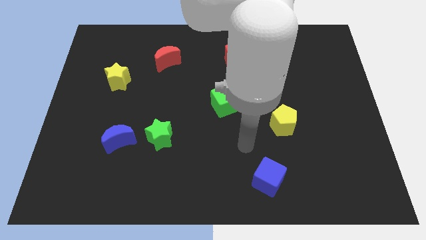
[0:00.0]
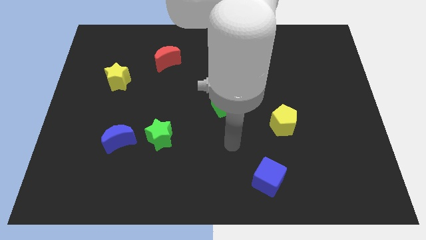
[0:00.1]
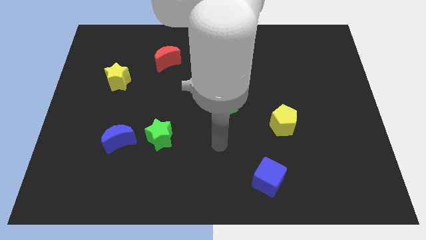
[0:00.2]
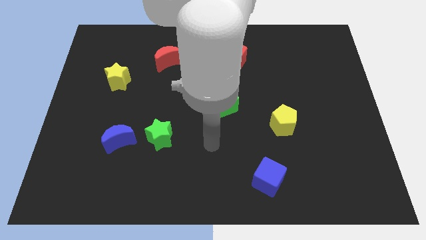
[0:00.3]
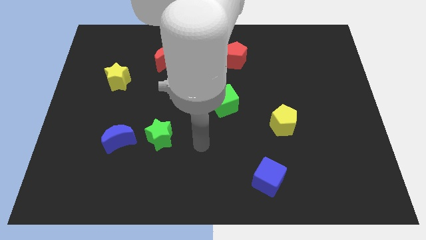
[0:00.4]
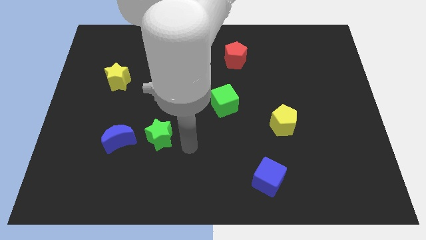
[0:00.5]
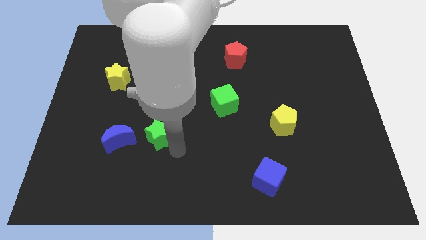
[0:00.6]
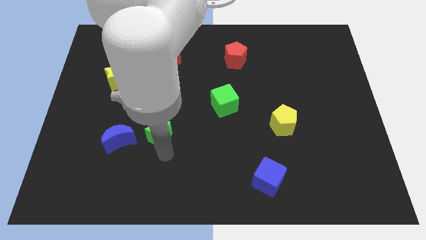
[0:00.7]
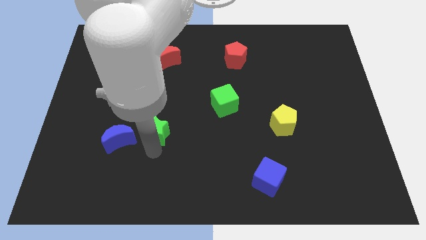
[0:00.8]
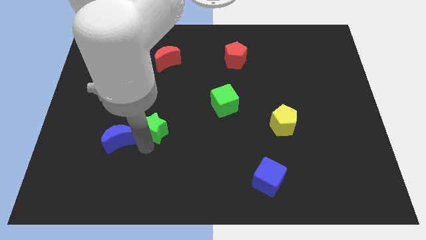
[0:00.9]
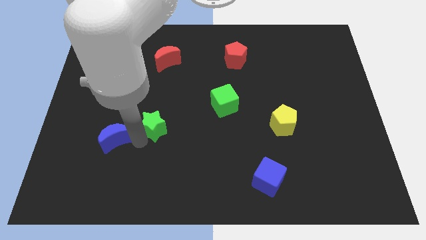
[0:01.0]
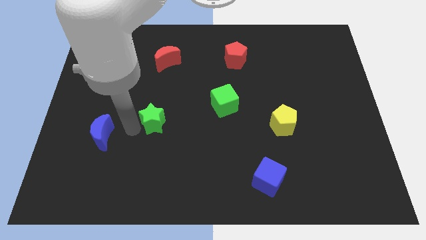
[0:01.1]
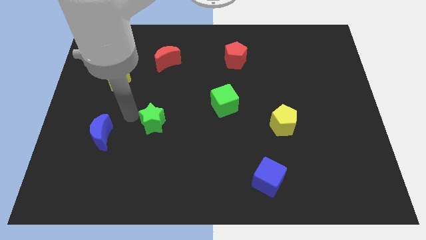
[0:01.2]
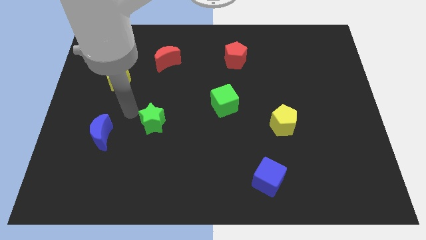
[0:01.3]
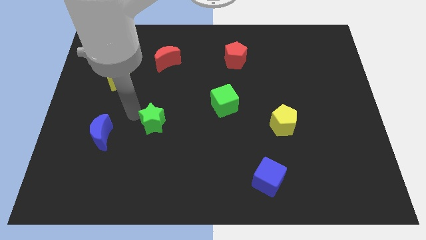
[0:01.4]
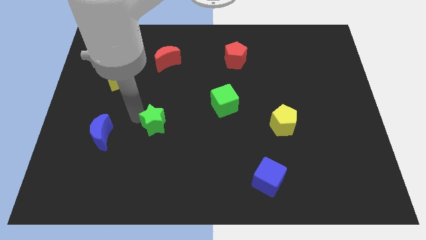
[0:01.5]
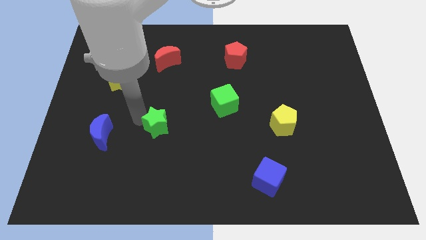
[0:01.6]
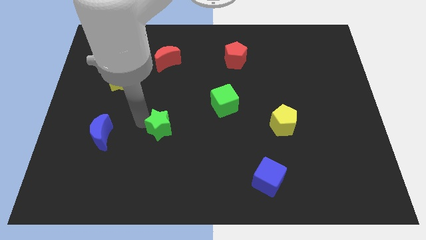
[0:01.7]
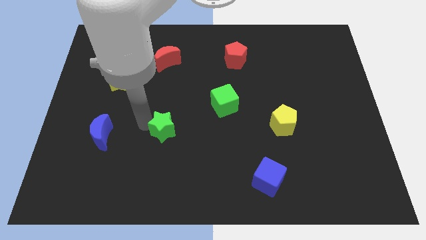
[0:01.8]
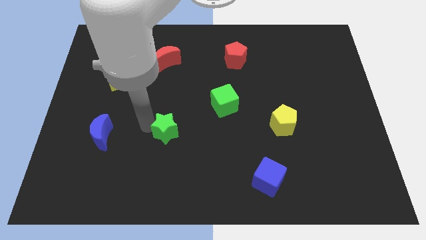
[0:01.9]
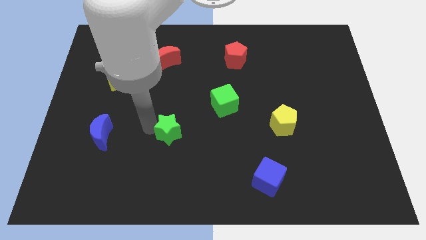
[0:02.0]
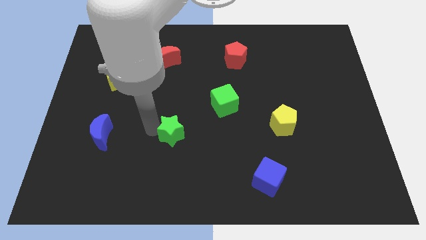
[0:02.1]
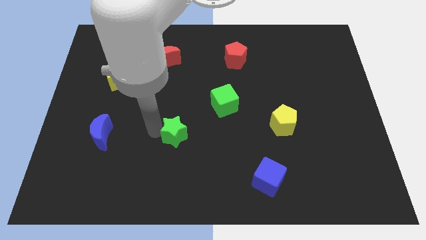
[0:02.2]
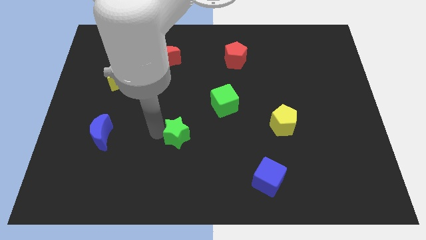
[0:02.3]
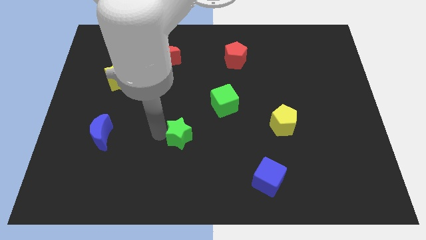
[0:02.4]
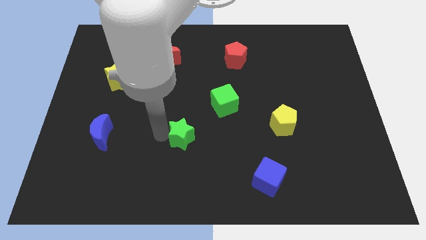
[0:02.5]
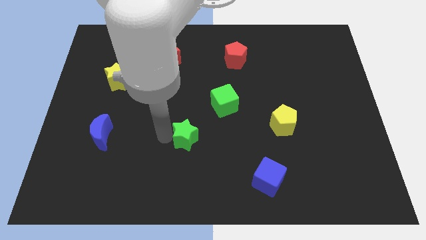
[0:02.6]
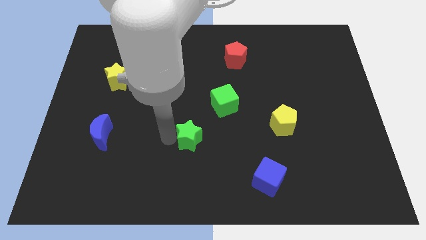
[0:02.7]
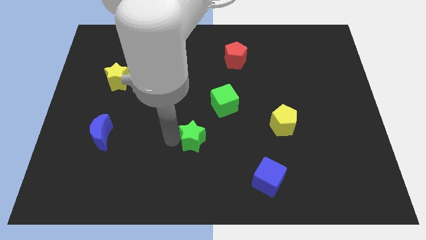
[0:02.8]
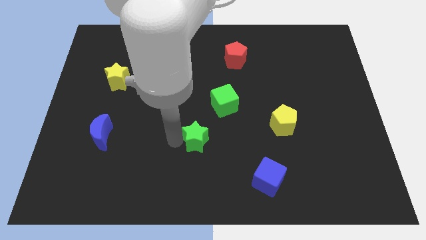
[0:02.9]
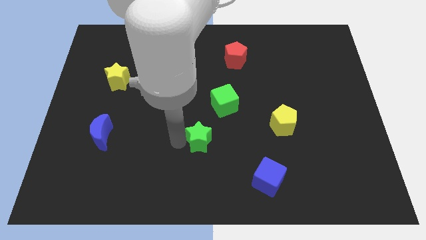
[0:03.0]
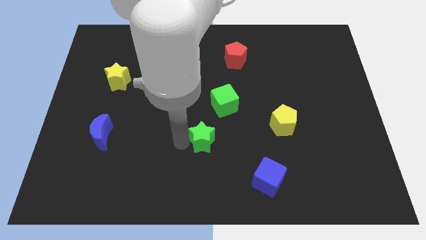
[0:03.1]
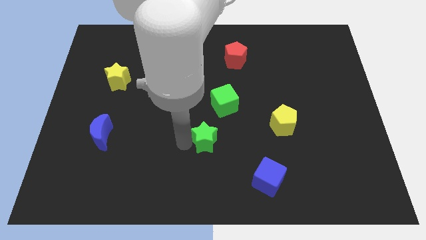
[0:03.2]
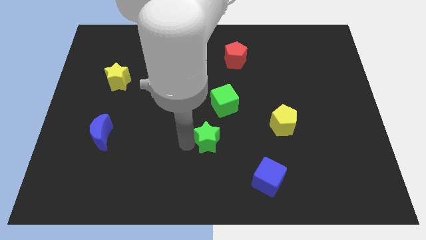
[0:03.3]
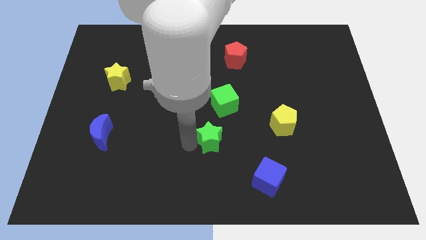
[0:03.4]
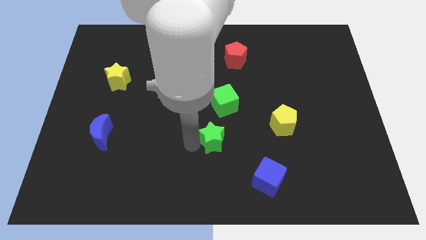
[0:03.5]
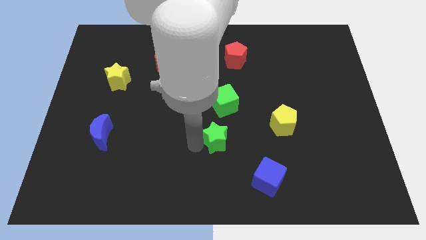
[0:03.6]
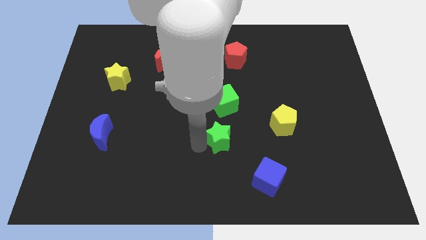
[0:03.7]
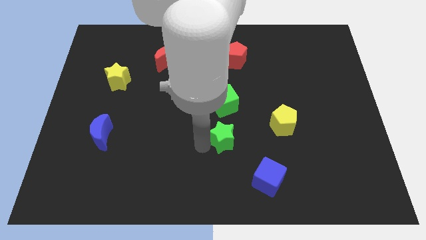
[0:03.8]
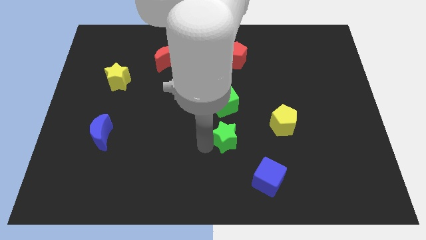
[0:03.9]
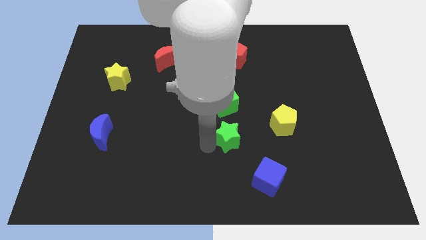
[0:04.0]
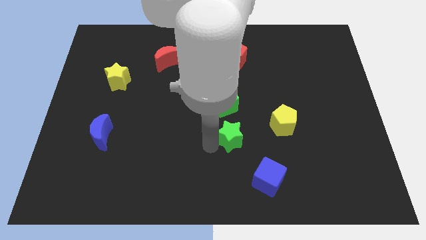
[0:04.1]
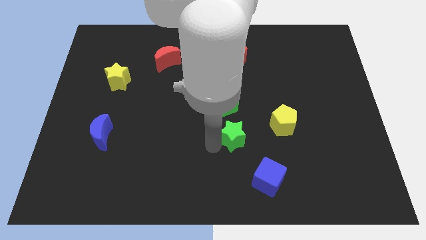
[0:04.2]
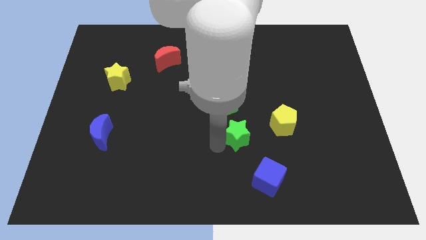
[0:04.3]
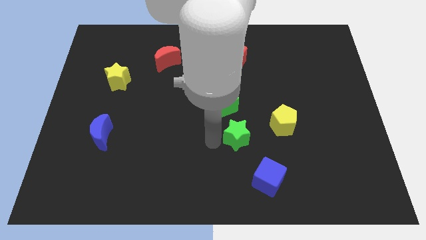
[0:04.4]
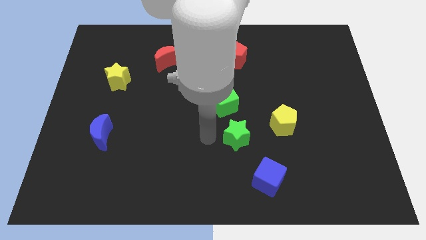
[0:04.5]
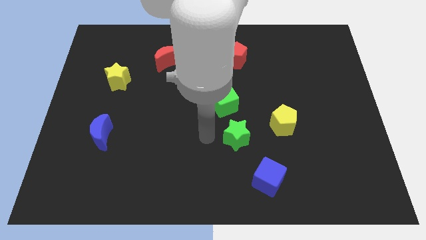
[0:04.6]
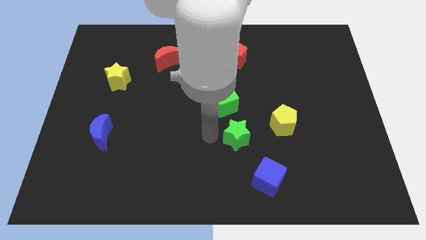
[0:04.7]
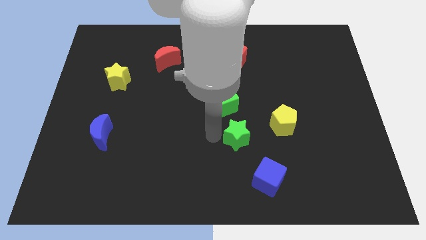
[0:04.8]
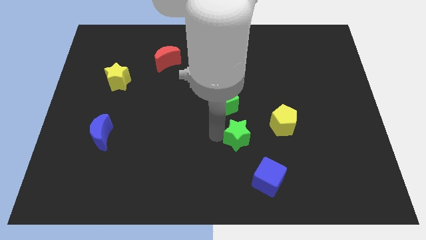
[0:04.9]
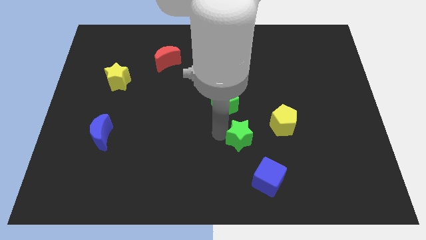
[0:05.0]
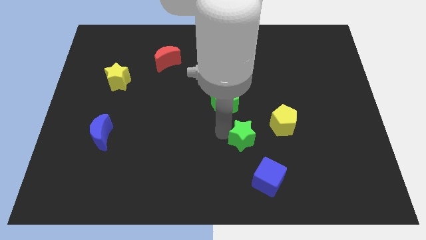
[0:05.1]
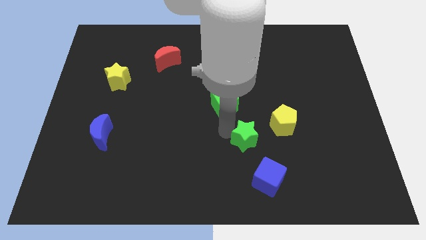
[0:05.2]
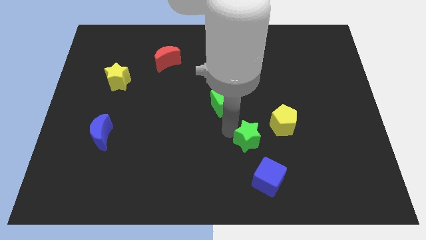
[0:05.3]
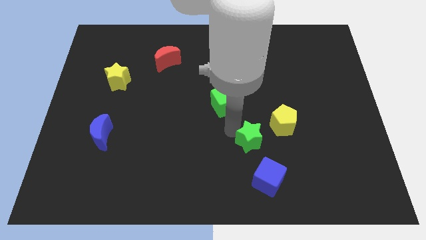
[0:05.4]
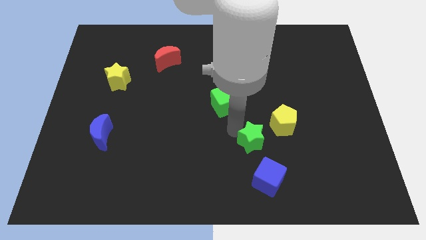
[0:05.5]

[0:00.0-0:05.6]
slide the green star to the right

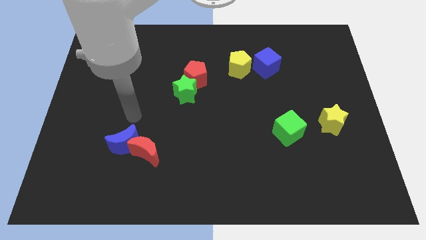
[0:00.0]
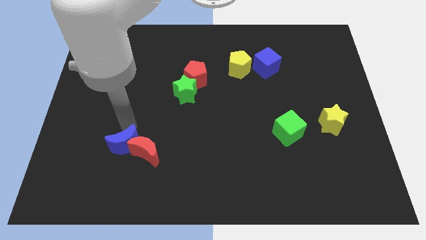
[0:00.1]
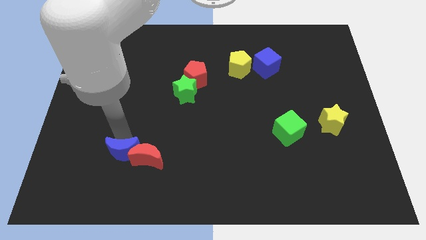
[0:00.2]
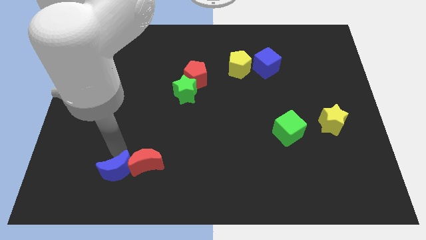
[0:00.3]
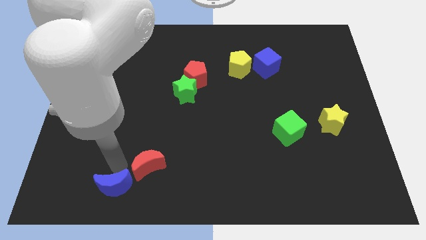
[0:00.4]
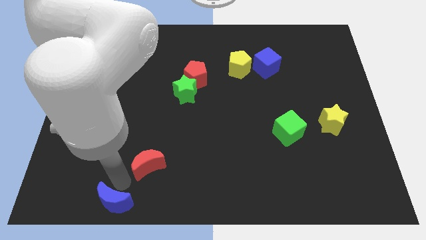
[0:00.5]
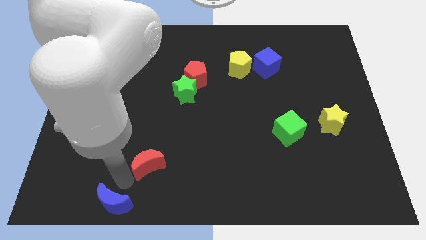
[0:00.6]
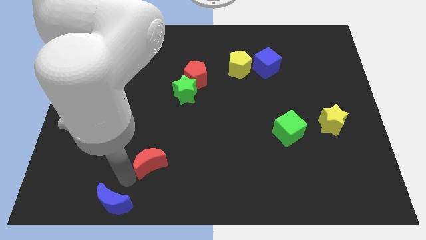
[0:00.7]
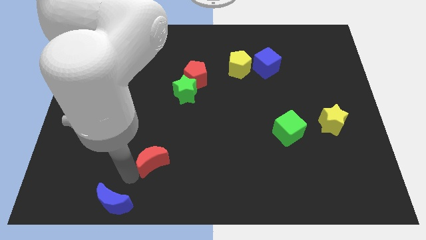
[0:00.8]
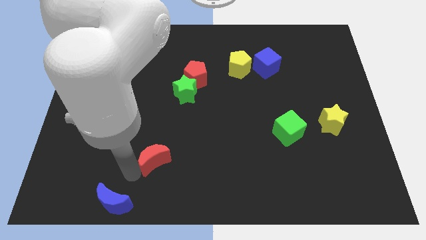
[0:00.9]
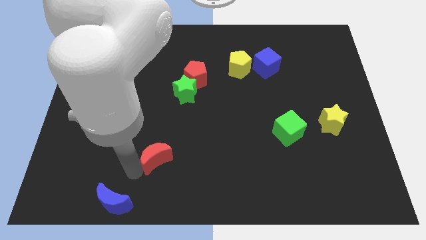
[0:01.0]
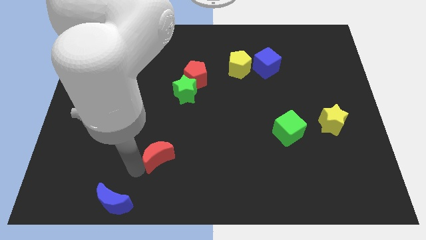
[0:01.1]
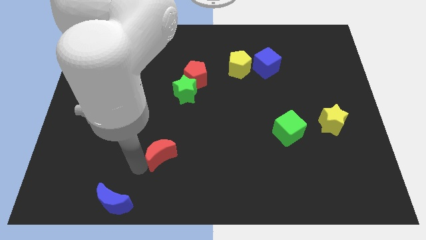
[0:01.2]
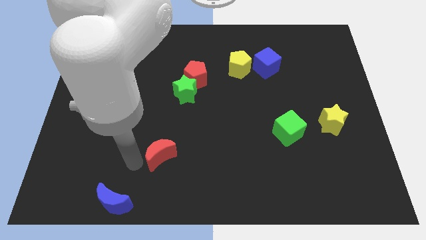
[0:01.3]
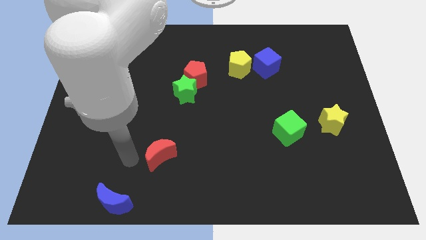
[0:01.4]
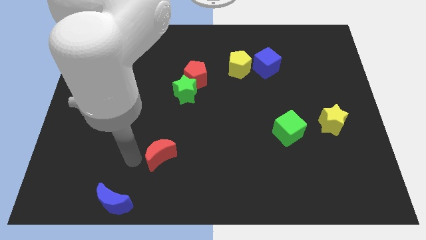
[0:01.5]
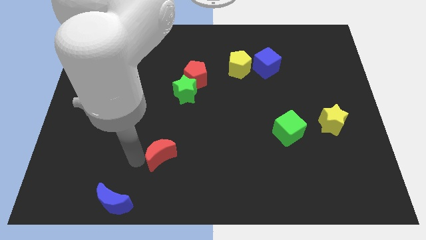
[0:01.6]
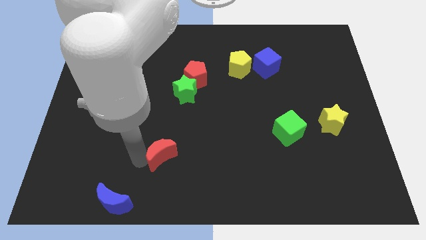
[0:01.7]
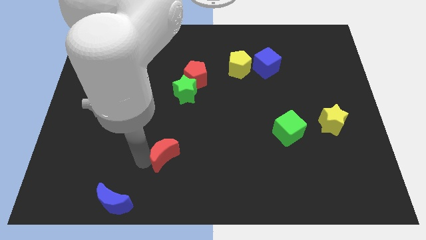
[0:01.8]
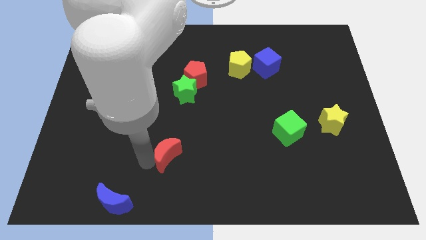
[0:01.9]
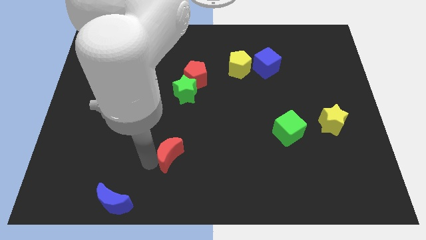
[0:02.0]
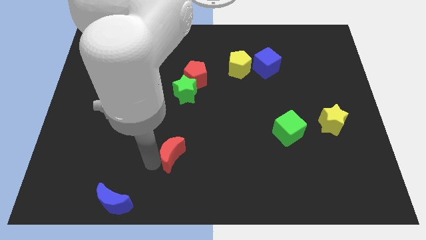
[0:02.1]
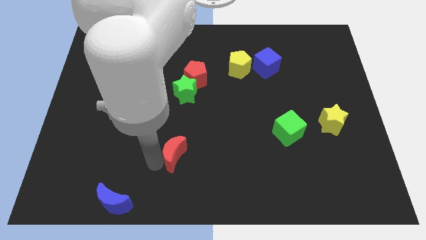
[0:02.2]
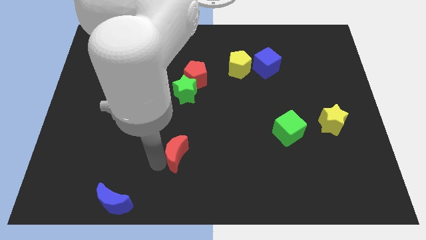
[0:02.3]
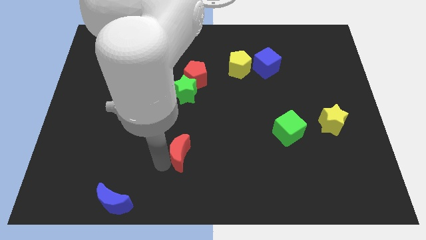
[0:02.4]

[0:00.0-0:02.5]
slightly slide the red moon to the right
